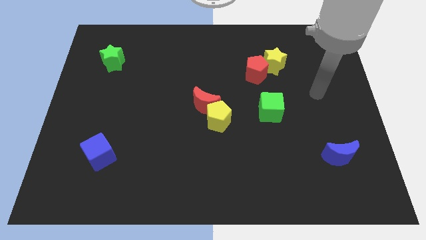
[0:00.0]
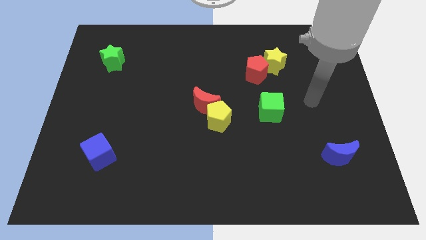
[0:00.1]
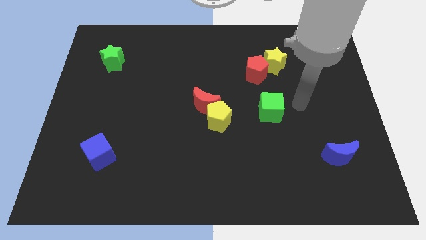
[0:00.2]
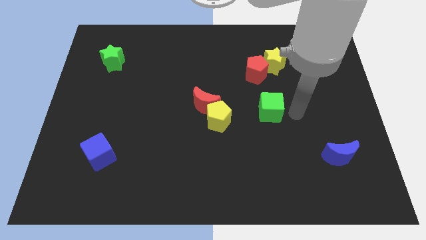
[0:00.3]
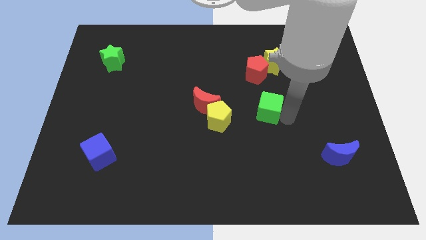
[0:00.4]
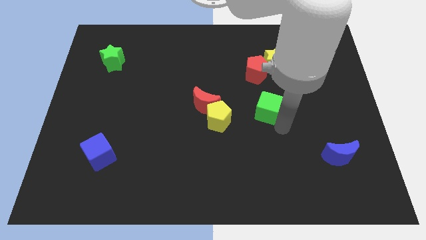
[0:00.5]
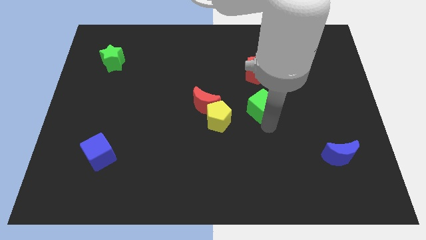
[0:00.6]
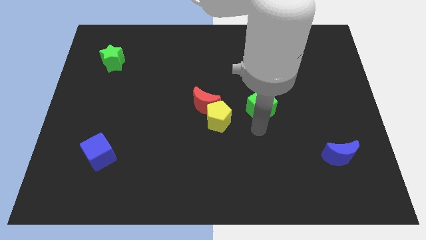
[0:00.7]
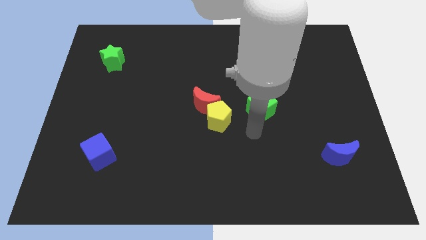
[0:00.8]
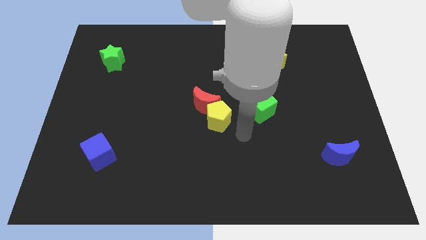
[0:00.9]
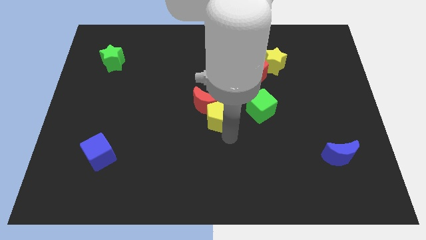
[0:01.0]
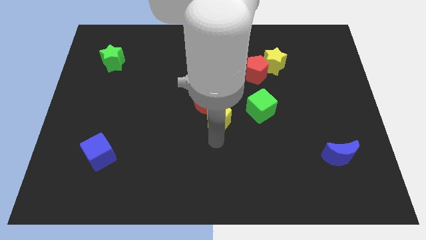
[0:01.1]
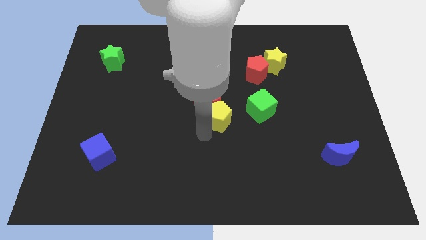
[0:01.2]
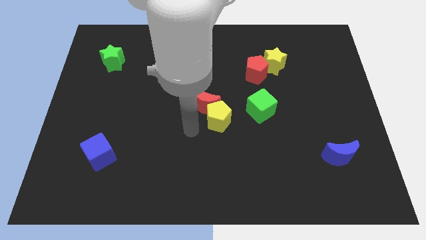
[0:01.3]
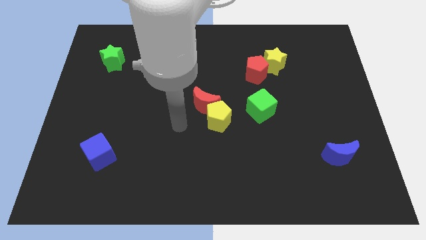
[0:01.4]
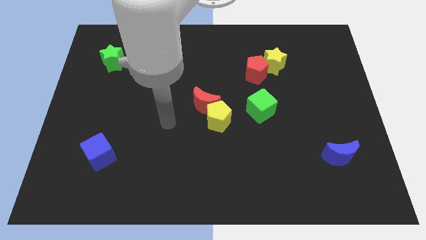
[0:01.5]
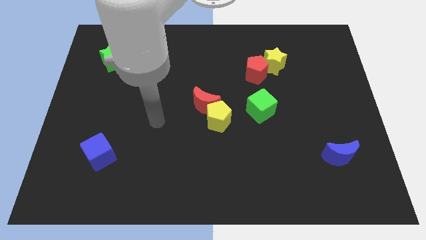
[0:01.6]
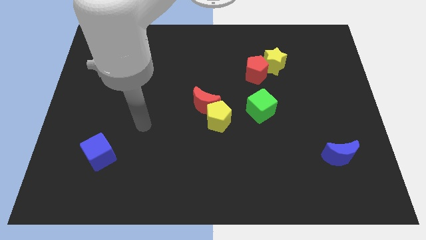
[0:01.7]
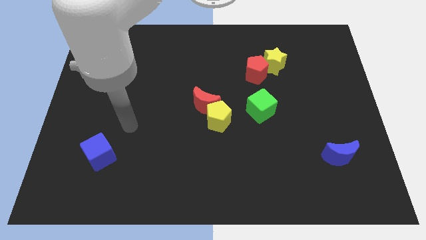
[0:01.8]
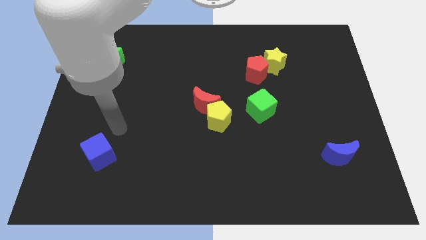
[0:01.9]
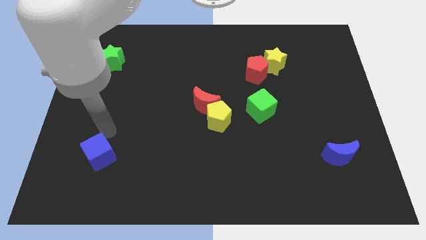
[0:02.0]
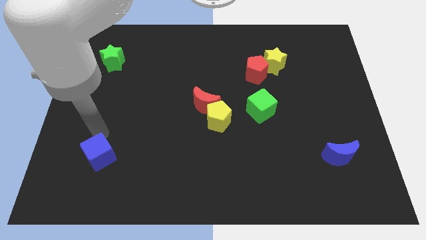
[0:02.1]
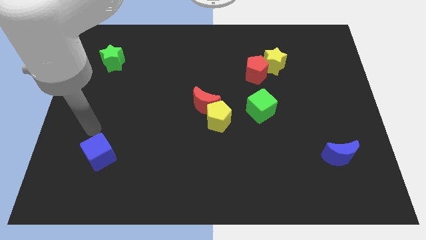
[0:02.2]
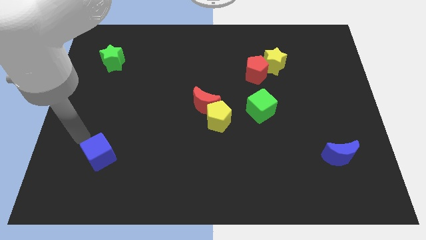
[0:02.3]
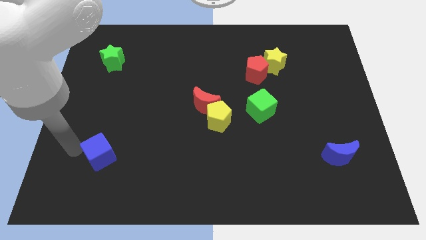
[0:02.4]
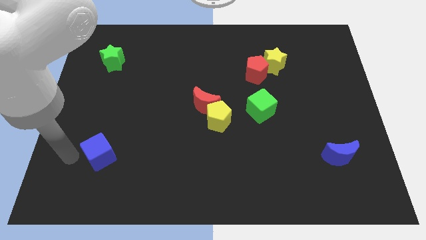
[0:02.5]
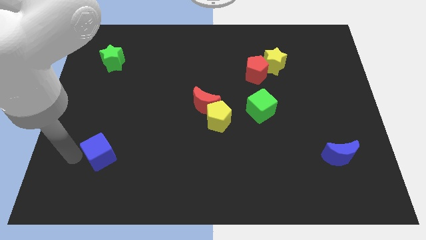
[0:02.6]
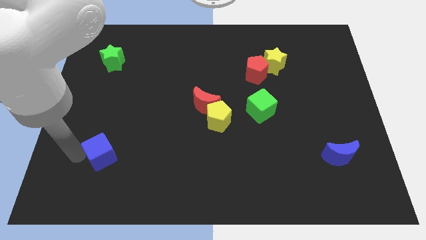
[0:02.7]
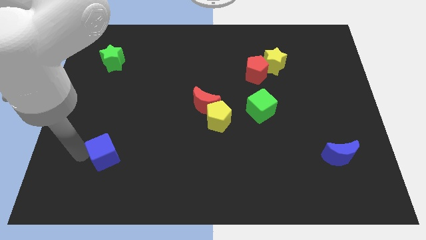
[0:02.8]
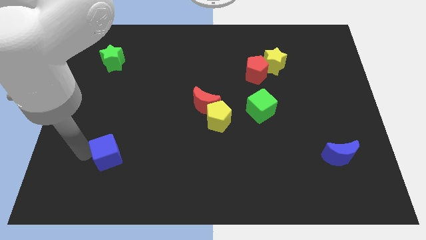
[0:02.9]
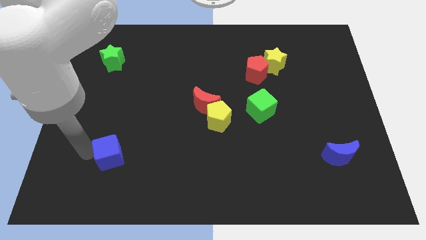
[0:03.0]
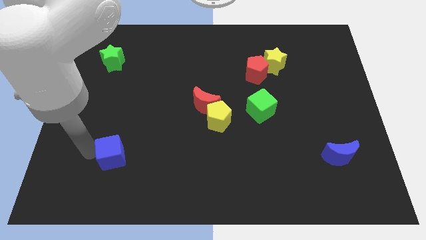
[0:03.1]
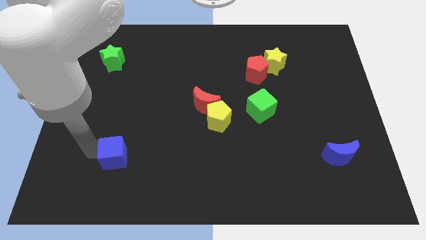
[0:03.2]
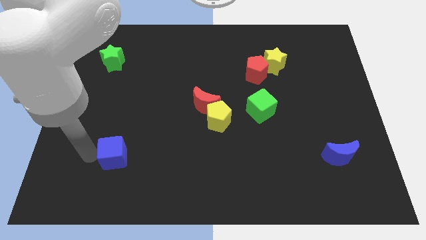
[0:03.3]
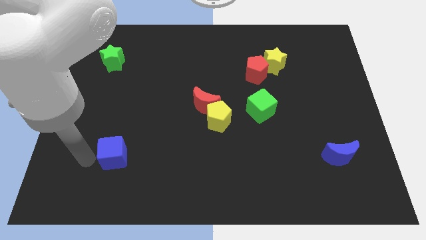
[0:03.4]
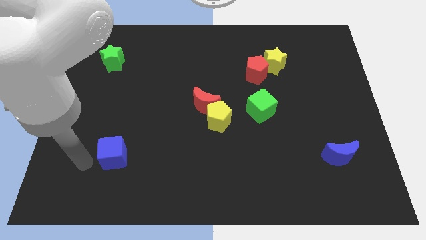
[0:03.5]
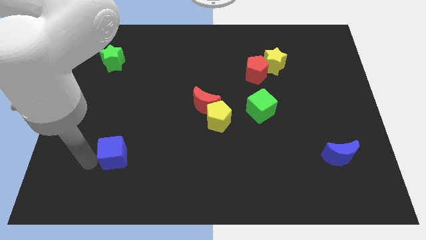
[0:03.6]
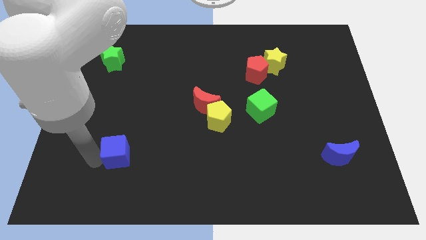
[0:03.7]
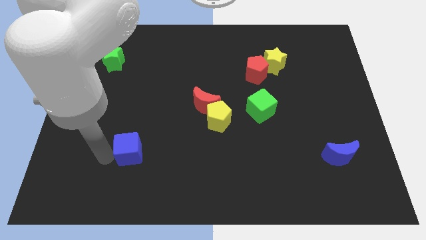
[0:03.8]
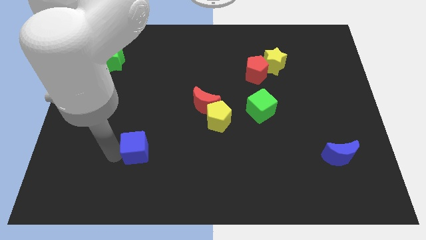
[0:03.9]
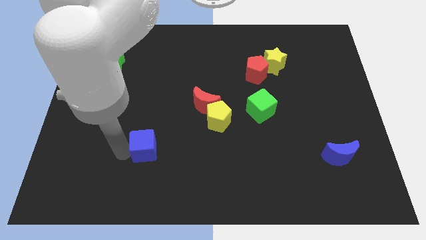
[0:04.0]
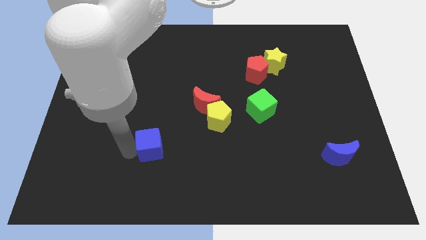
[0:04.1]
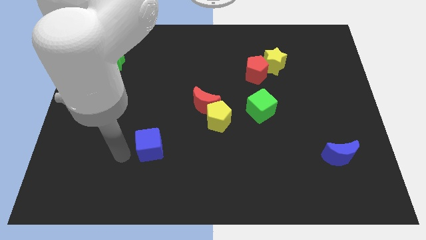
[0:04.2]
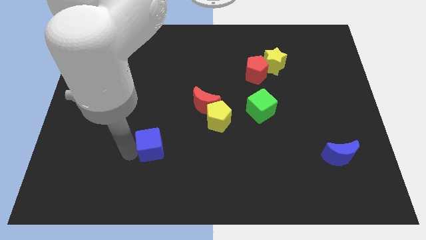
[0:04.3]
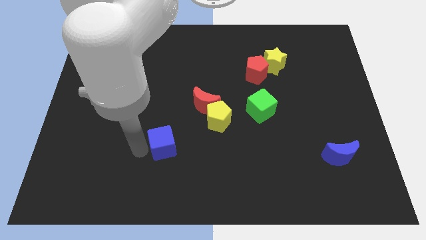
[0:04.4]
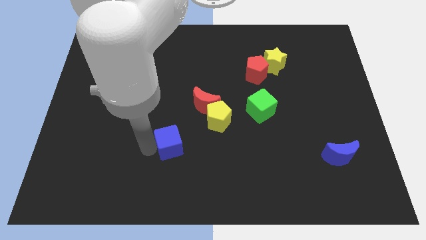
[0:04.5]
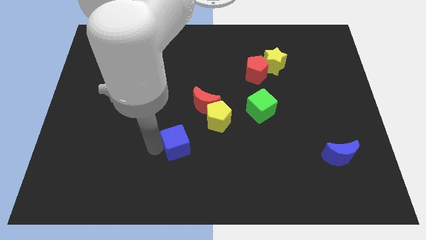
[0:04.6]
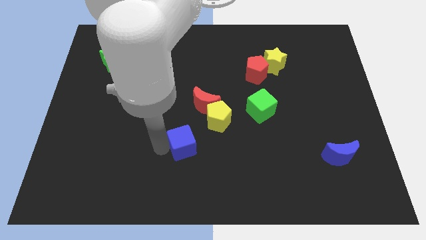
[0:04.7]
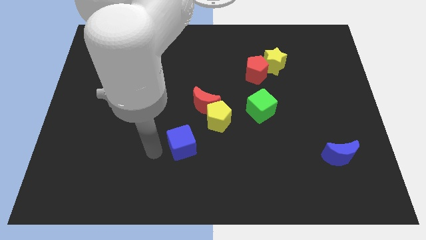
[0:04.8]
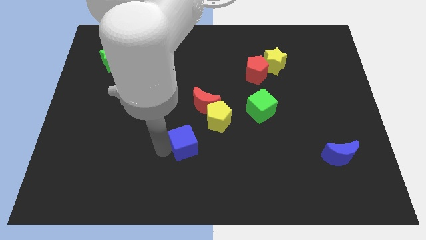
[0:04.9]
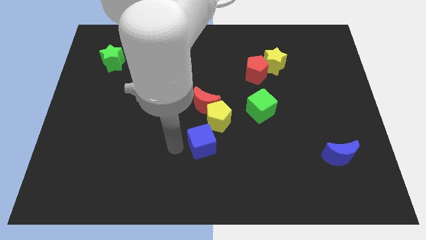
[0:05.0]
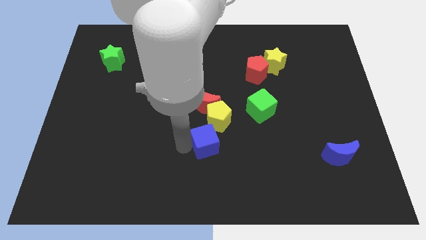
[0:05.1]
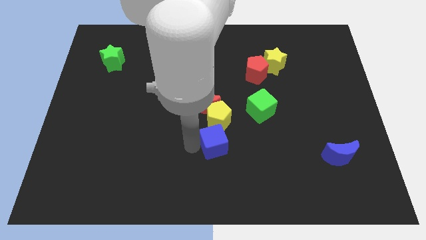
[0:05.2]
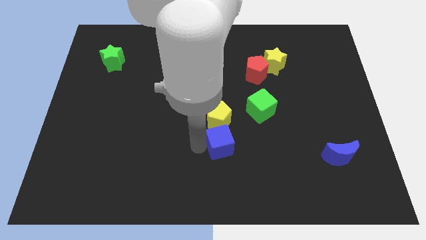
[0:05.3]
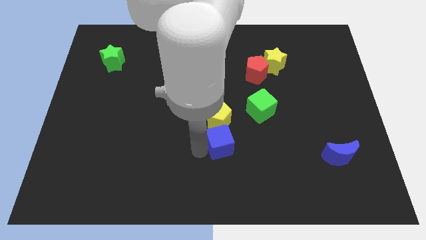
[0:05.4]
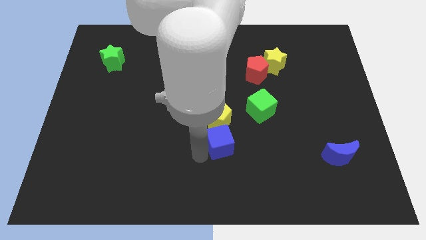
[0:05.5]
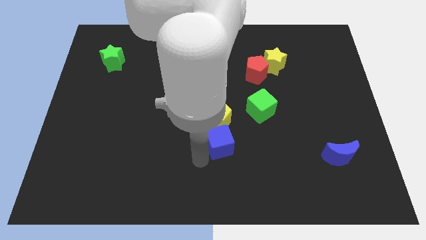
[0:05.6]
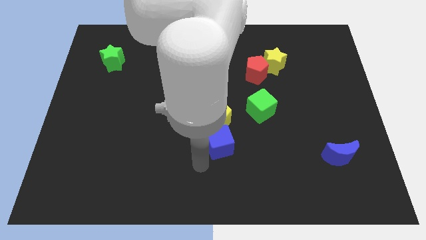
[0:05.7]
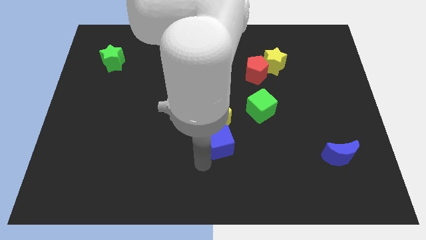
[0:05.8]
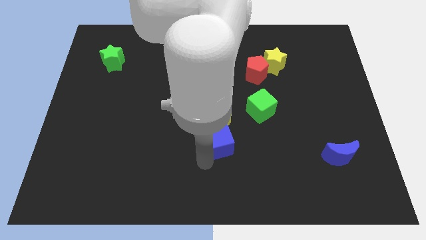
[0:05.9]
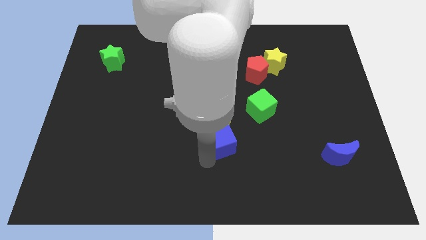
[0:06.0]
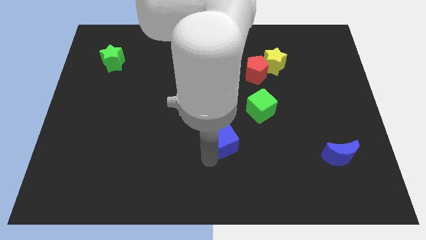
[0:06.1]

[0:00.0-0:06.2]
slide the blue cube to the bottom left of the green cube

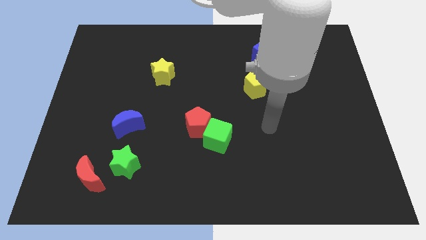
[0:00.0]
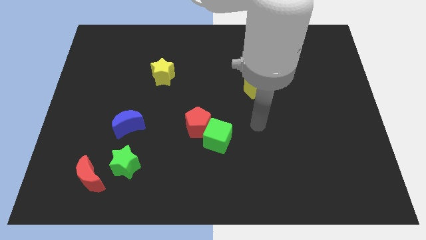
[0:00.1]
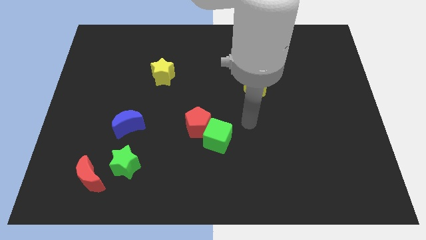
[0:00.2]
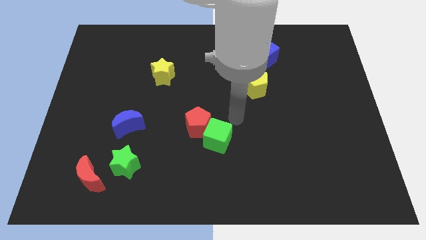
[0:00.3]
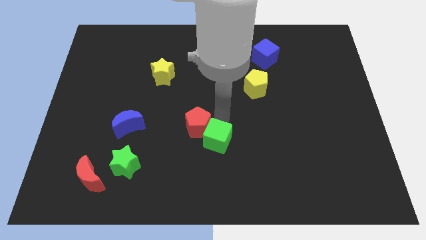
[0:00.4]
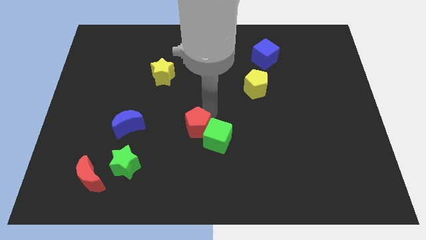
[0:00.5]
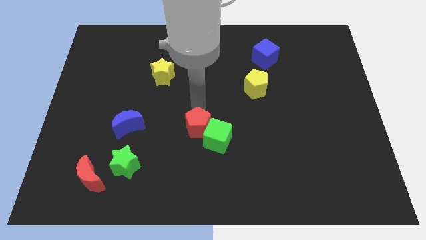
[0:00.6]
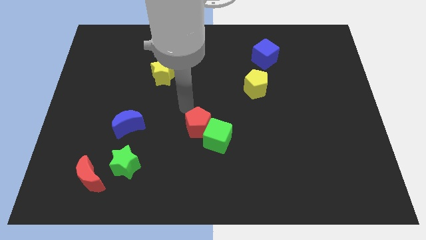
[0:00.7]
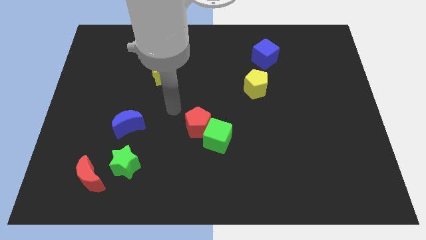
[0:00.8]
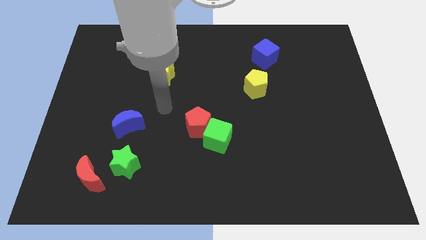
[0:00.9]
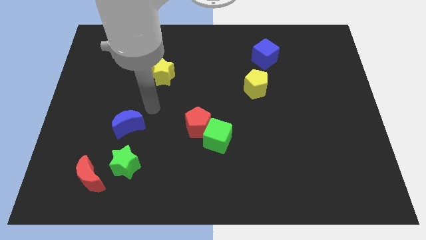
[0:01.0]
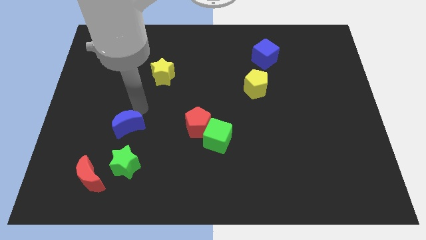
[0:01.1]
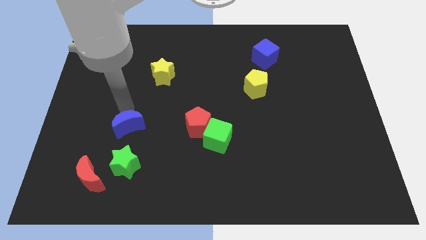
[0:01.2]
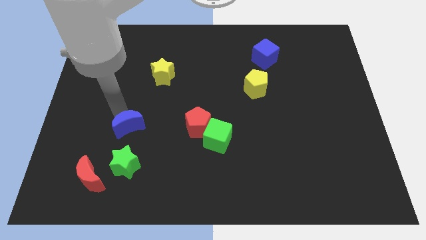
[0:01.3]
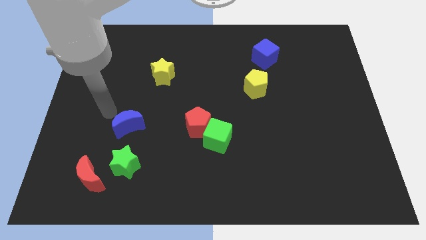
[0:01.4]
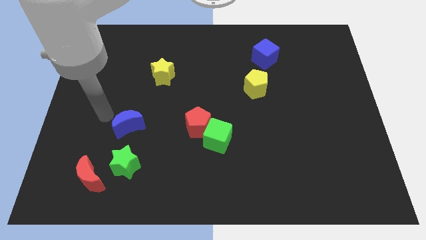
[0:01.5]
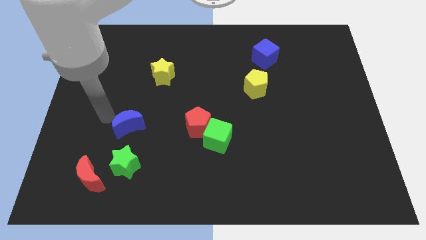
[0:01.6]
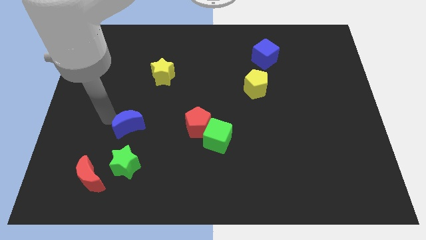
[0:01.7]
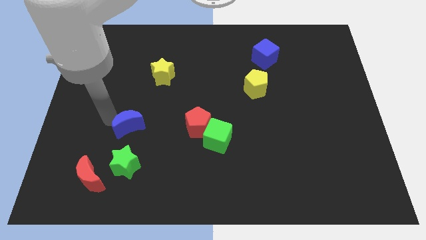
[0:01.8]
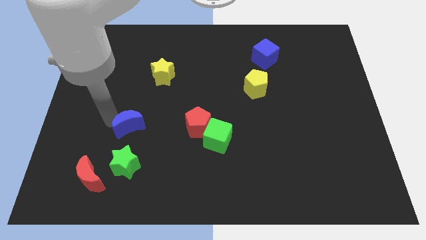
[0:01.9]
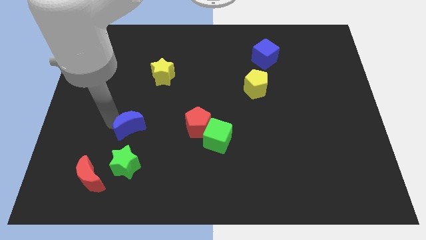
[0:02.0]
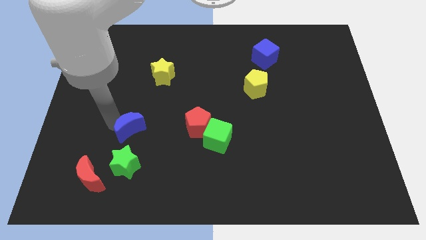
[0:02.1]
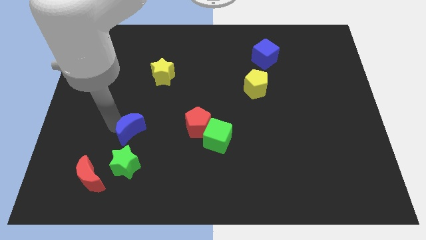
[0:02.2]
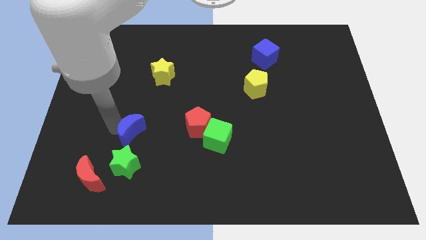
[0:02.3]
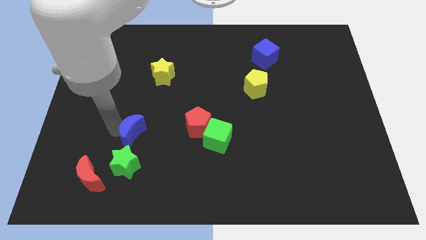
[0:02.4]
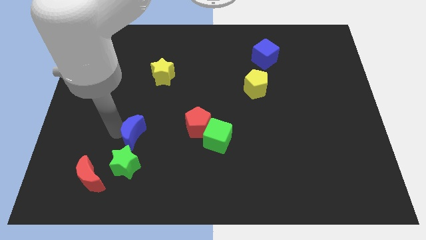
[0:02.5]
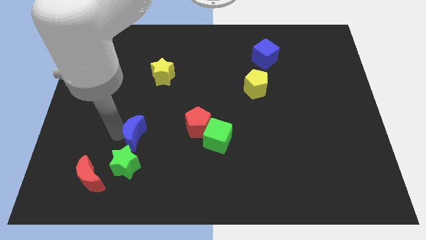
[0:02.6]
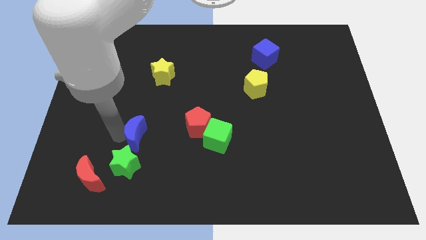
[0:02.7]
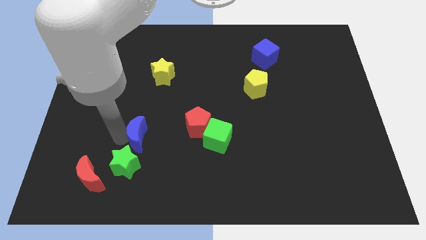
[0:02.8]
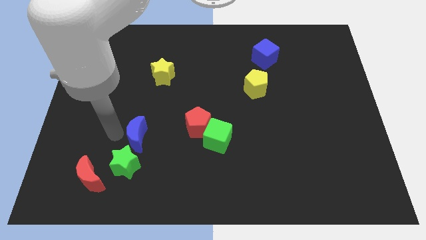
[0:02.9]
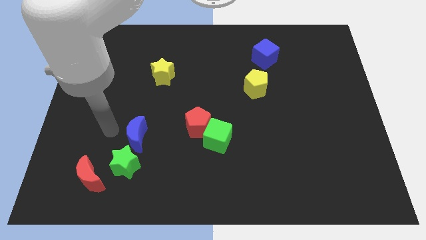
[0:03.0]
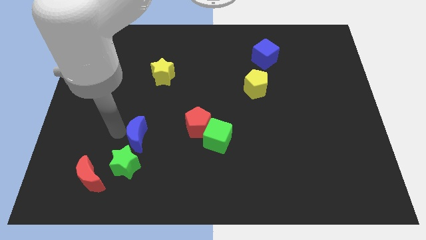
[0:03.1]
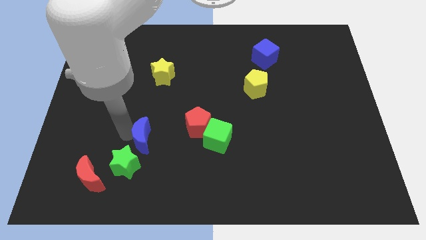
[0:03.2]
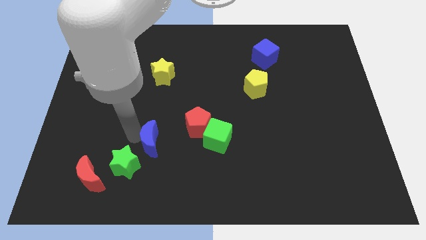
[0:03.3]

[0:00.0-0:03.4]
put the blue moon diagonally down and to the left of the red pentagon
